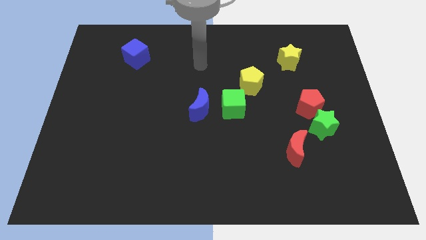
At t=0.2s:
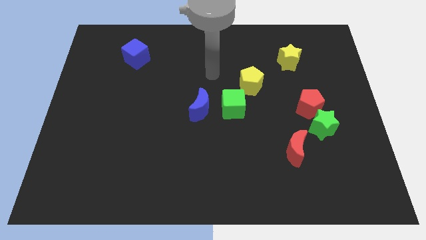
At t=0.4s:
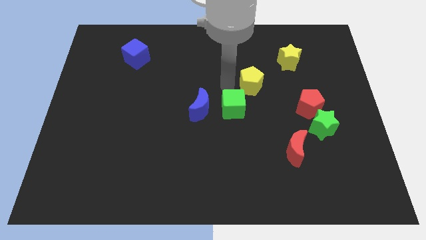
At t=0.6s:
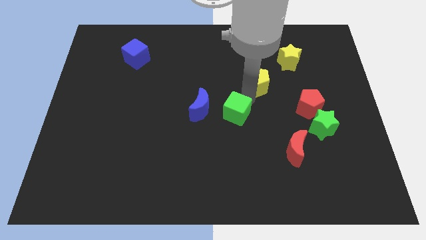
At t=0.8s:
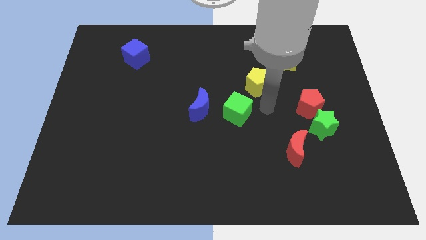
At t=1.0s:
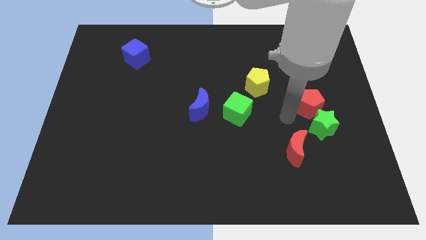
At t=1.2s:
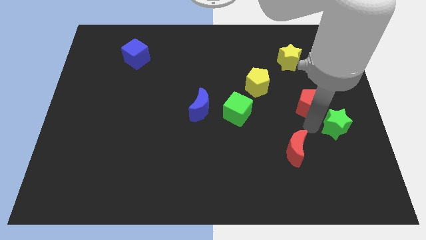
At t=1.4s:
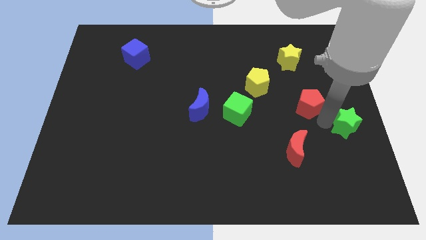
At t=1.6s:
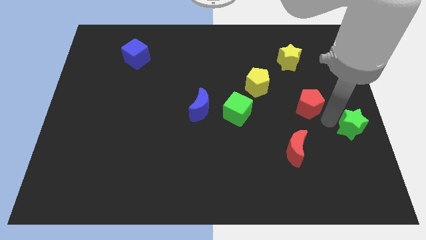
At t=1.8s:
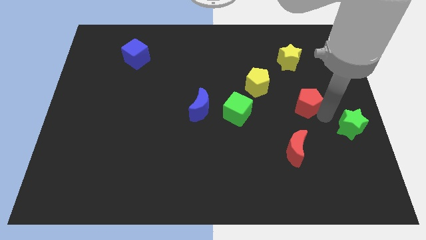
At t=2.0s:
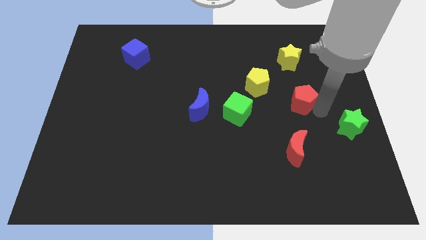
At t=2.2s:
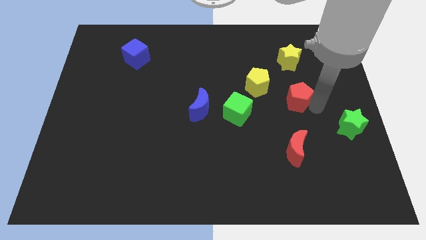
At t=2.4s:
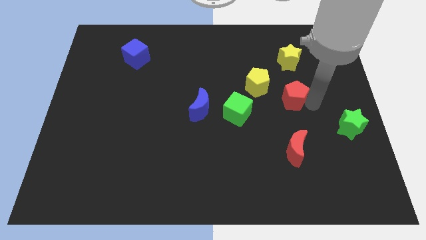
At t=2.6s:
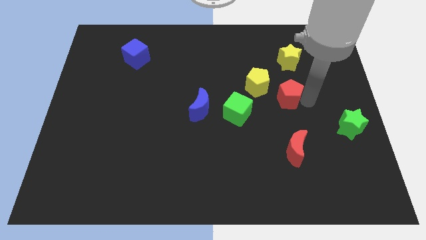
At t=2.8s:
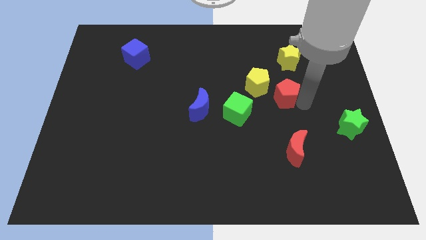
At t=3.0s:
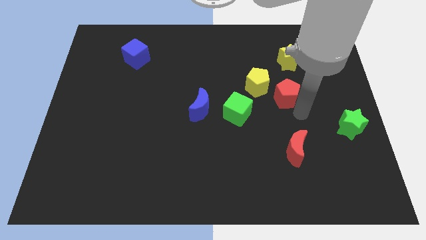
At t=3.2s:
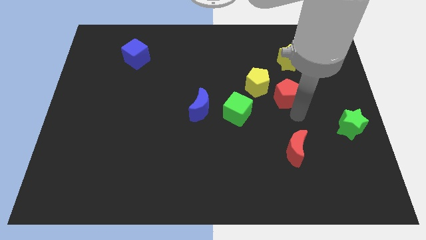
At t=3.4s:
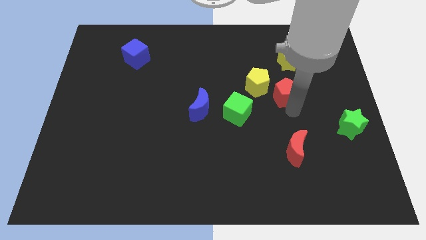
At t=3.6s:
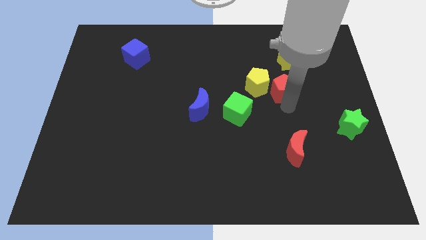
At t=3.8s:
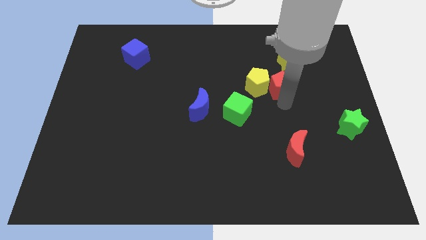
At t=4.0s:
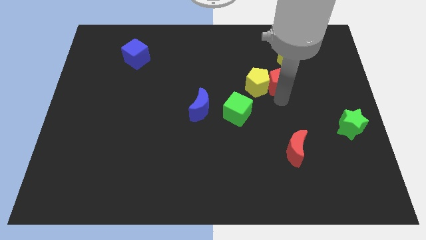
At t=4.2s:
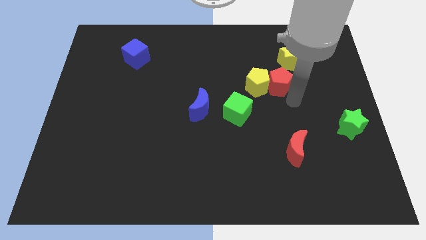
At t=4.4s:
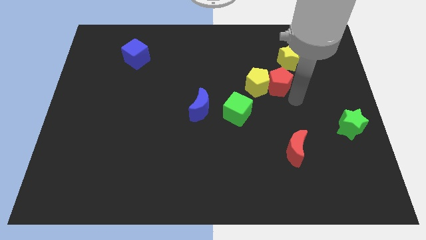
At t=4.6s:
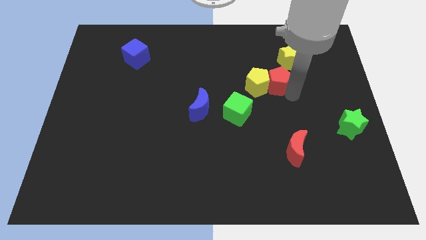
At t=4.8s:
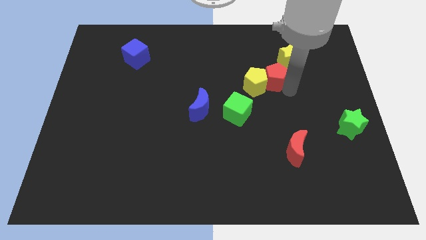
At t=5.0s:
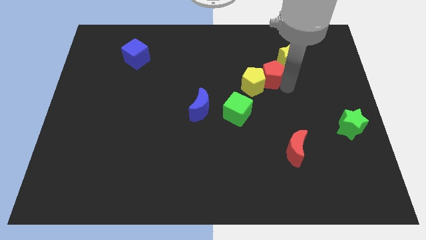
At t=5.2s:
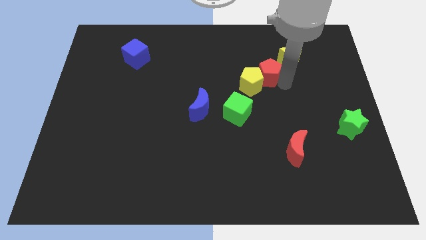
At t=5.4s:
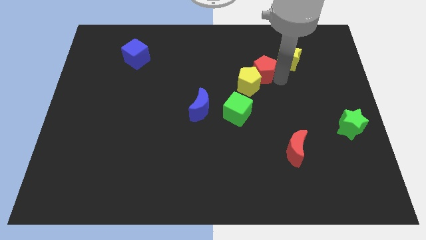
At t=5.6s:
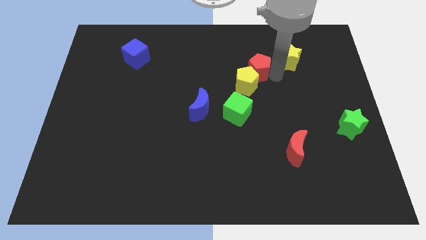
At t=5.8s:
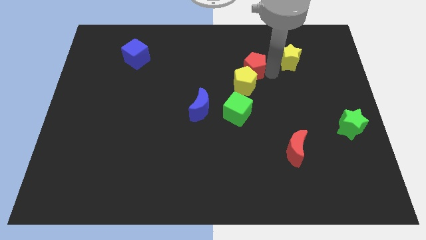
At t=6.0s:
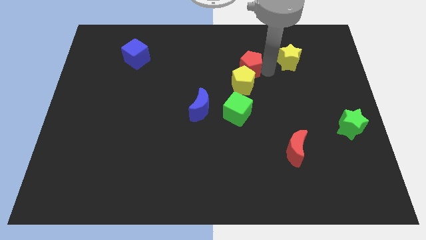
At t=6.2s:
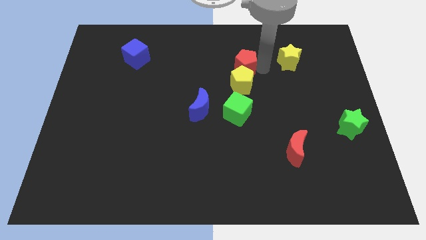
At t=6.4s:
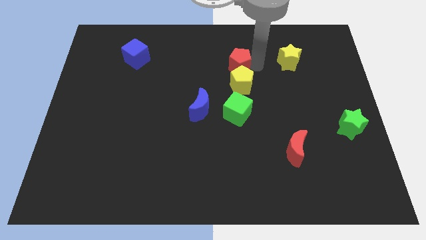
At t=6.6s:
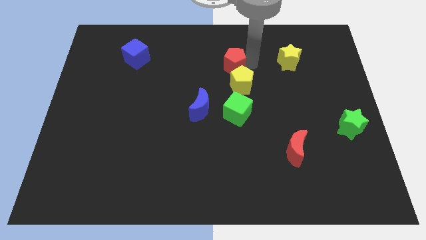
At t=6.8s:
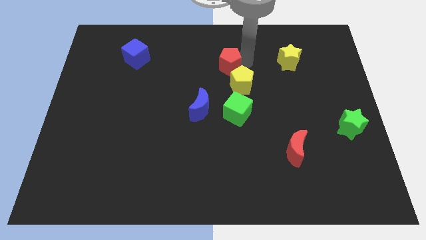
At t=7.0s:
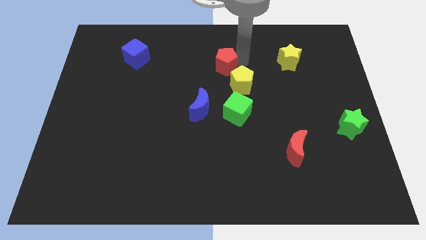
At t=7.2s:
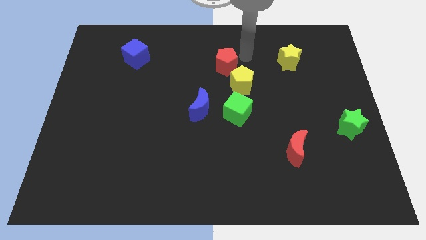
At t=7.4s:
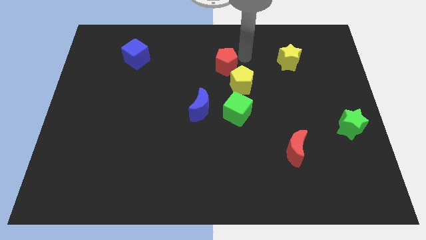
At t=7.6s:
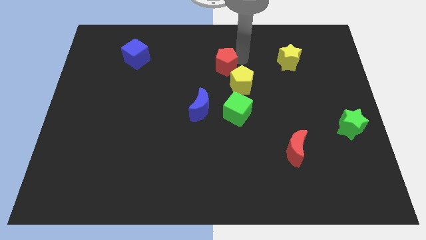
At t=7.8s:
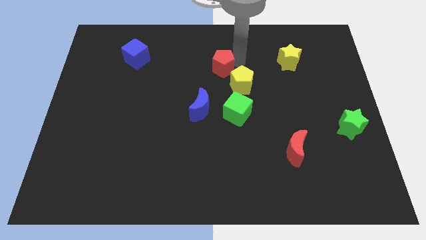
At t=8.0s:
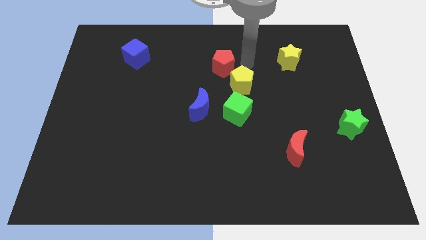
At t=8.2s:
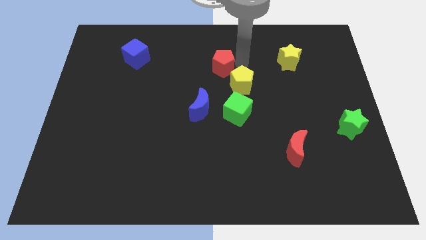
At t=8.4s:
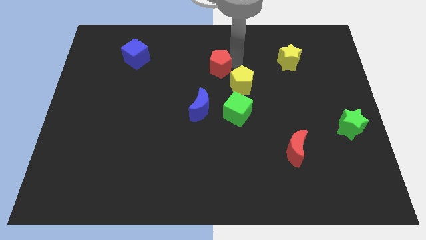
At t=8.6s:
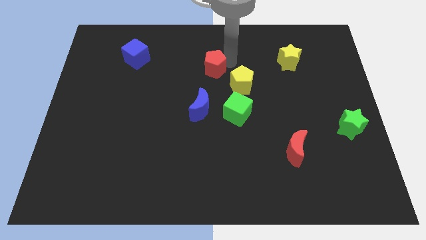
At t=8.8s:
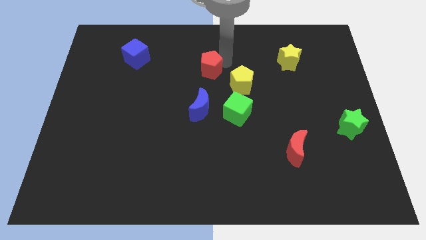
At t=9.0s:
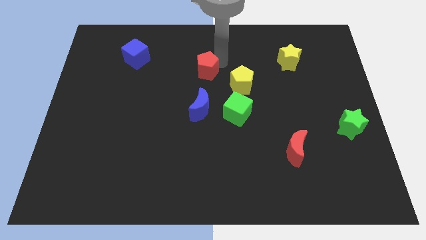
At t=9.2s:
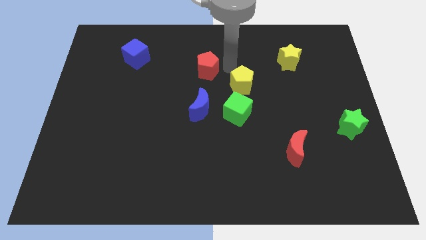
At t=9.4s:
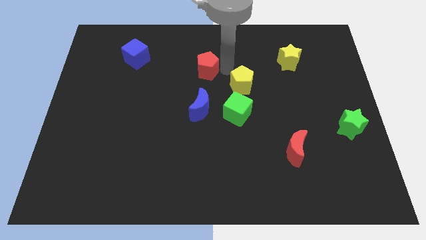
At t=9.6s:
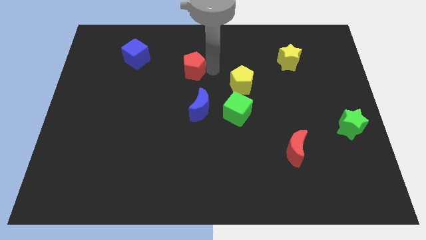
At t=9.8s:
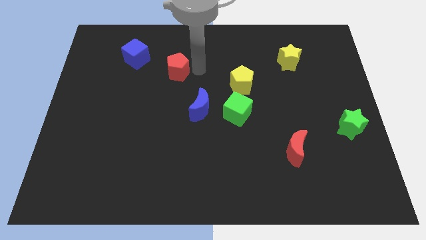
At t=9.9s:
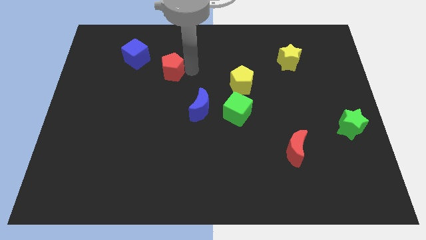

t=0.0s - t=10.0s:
push the red pentagon diagonally down and to the right of the blue cube

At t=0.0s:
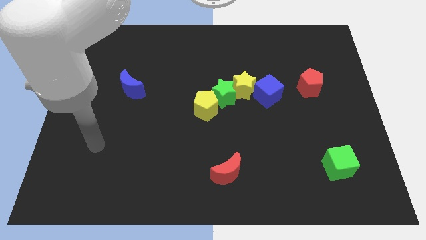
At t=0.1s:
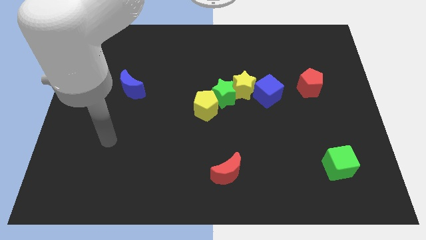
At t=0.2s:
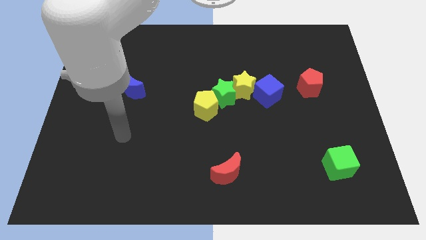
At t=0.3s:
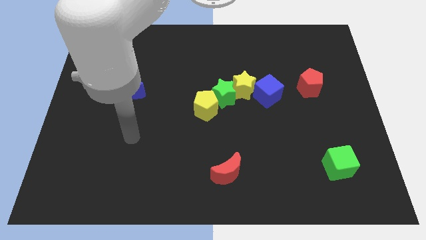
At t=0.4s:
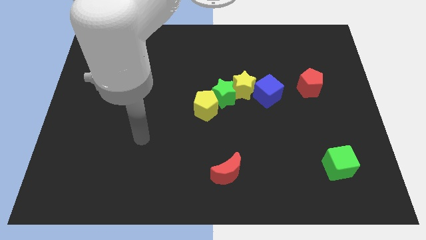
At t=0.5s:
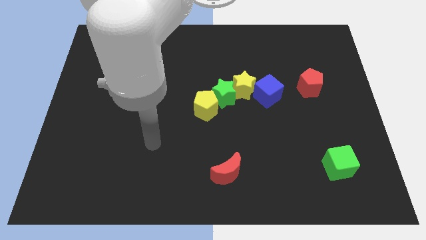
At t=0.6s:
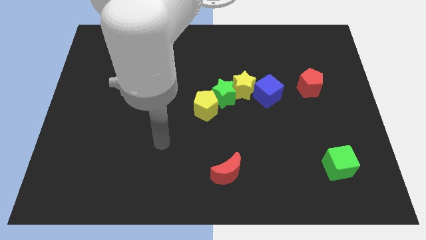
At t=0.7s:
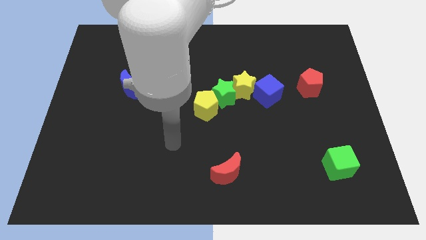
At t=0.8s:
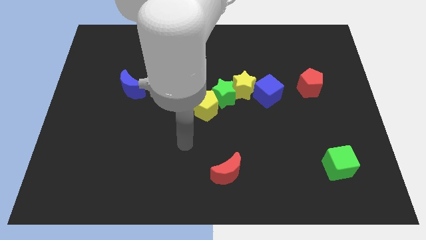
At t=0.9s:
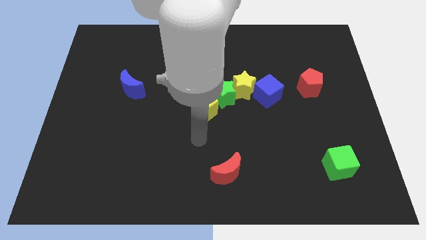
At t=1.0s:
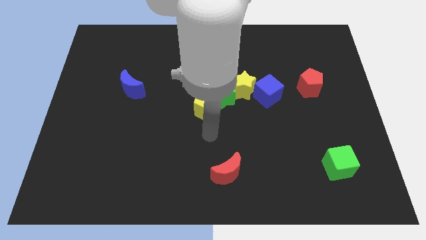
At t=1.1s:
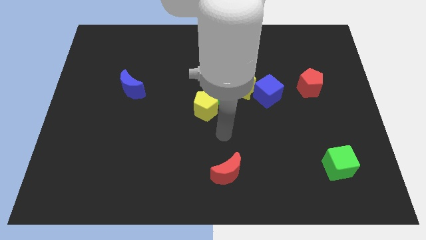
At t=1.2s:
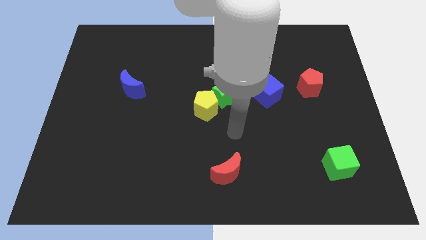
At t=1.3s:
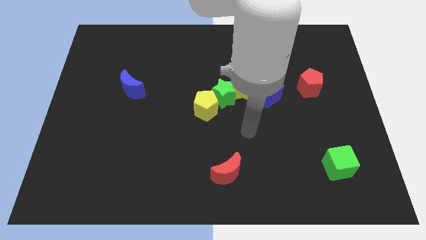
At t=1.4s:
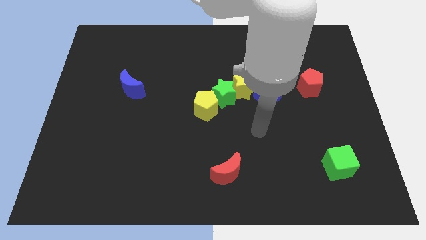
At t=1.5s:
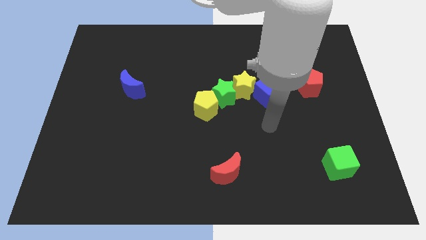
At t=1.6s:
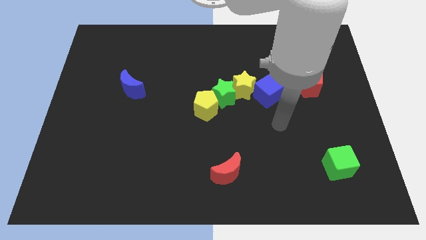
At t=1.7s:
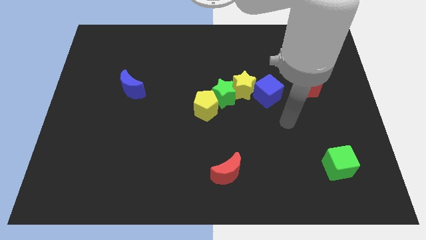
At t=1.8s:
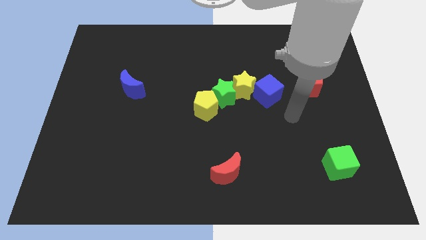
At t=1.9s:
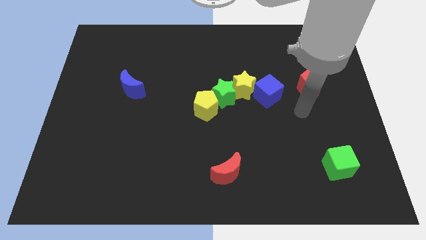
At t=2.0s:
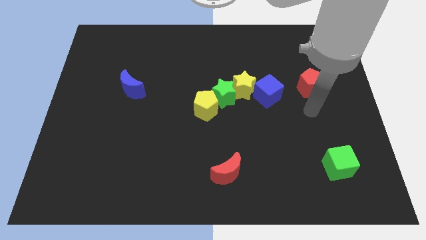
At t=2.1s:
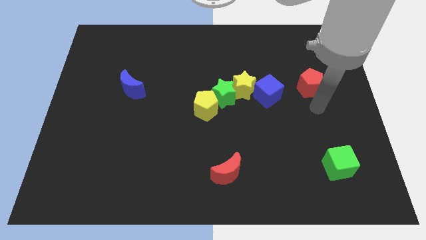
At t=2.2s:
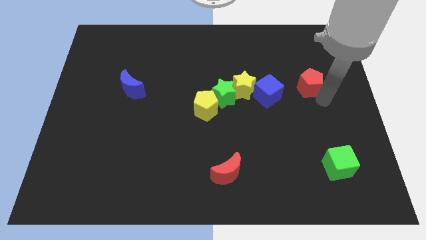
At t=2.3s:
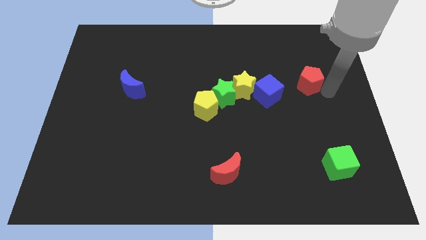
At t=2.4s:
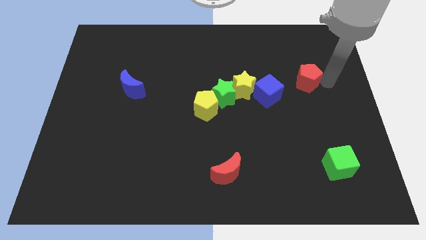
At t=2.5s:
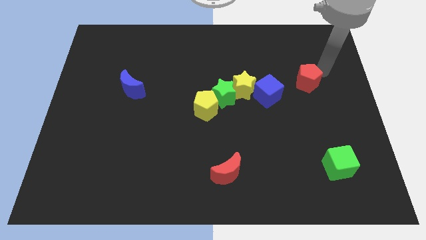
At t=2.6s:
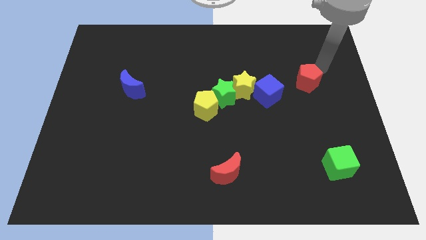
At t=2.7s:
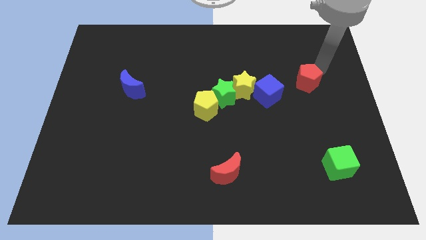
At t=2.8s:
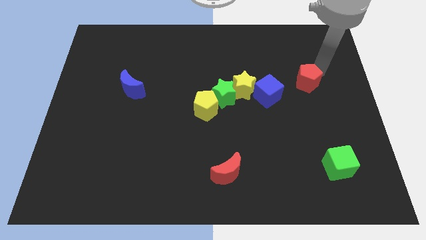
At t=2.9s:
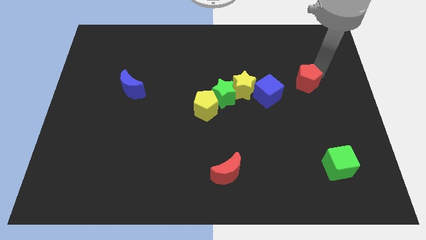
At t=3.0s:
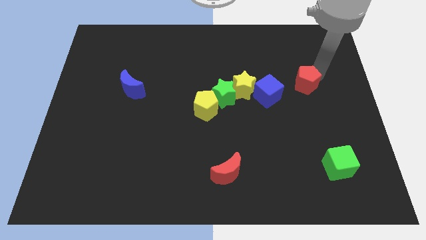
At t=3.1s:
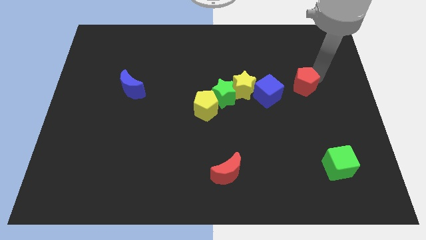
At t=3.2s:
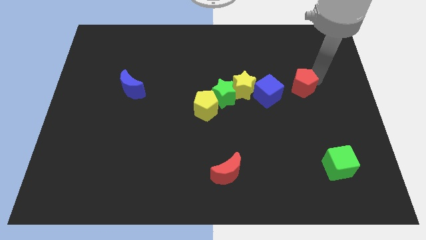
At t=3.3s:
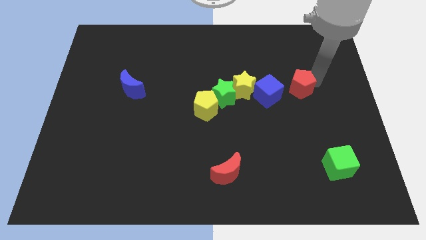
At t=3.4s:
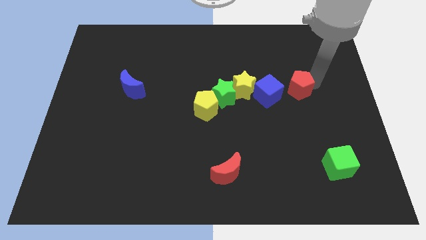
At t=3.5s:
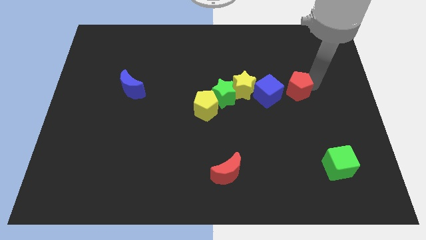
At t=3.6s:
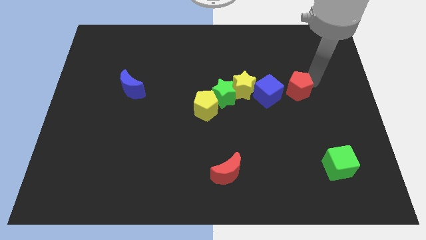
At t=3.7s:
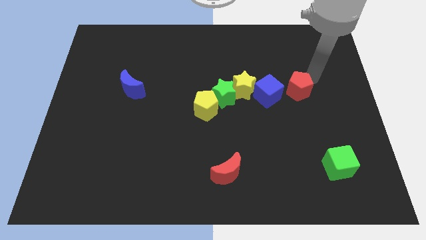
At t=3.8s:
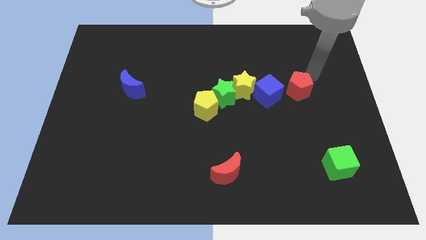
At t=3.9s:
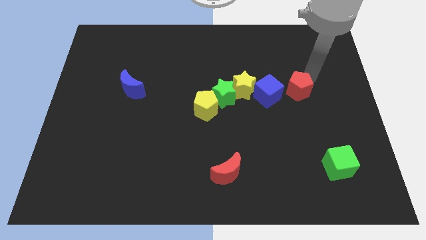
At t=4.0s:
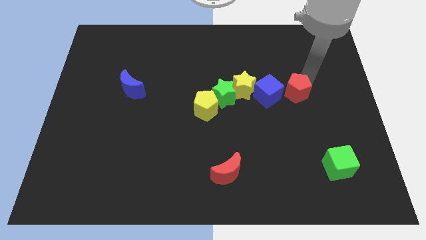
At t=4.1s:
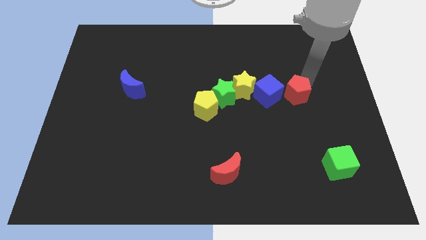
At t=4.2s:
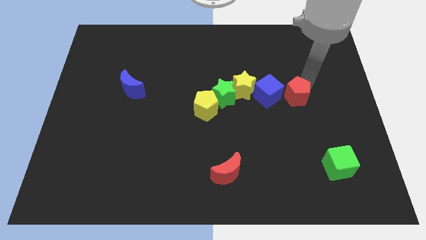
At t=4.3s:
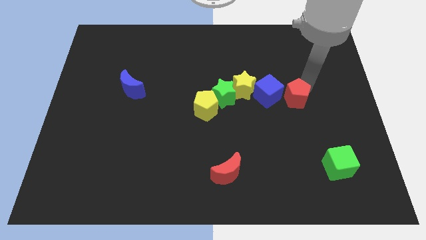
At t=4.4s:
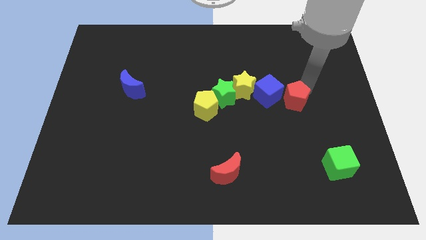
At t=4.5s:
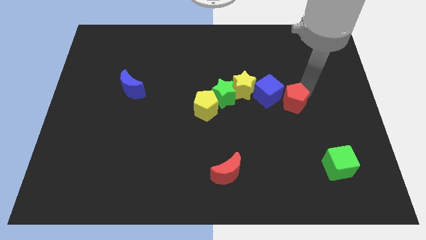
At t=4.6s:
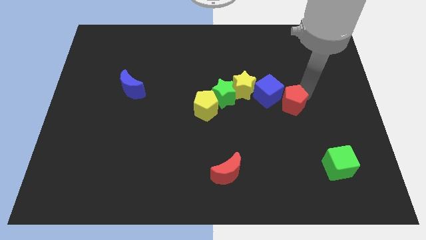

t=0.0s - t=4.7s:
move the red pentagon to the right side of the green star
